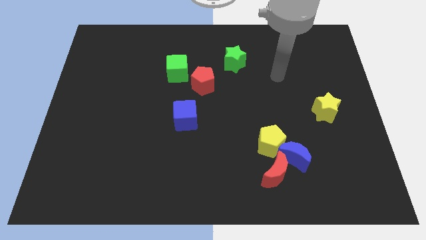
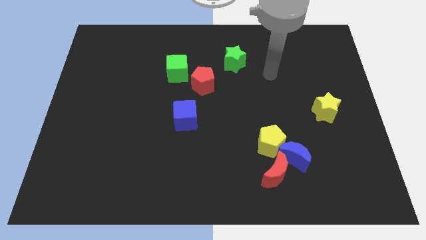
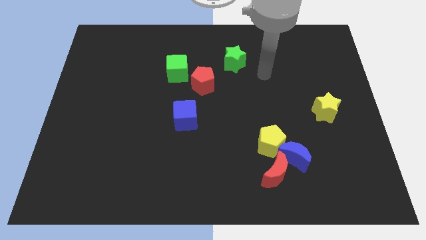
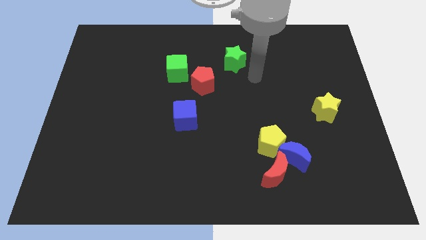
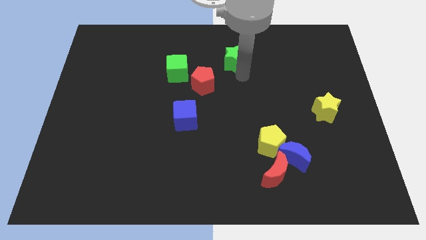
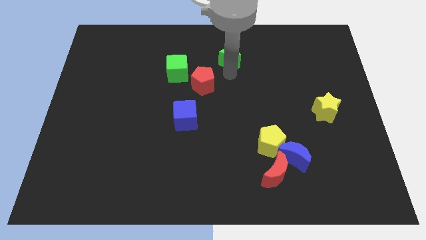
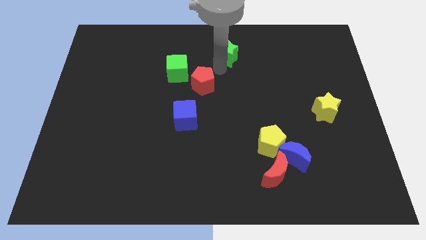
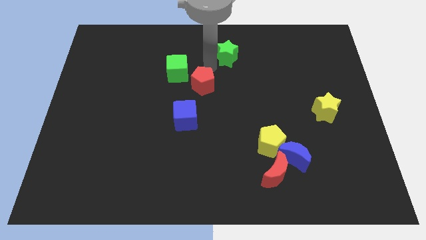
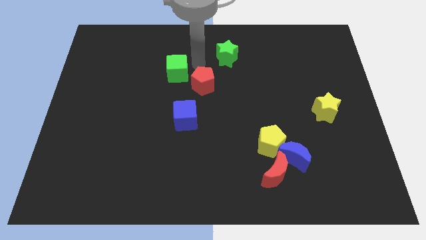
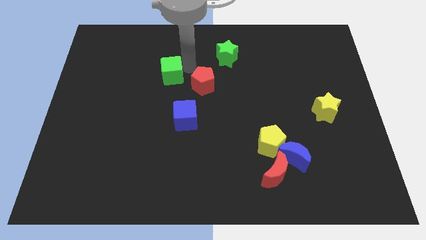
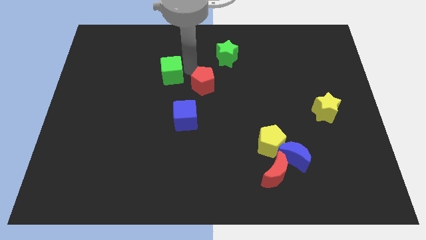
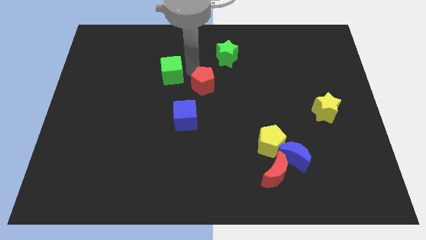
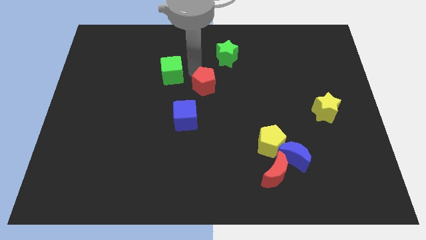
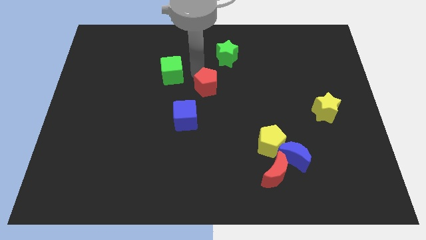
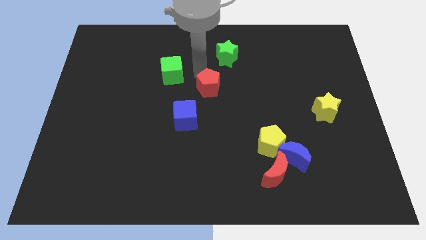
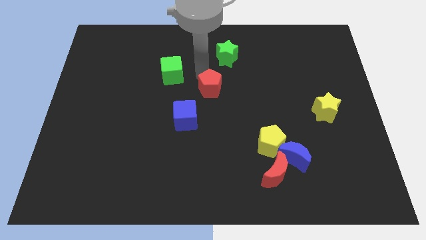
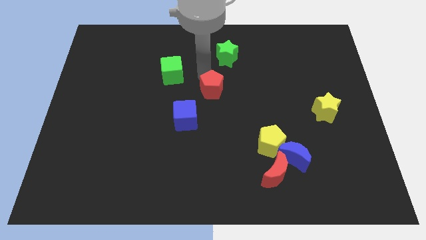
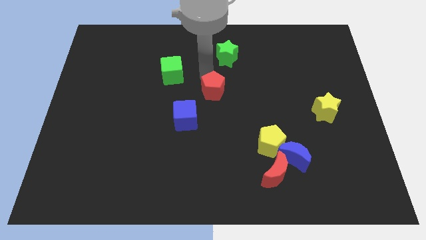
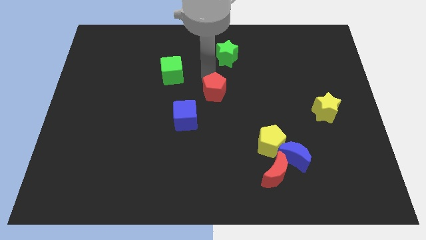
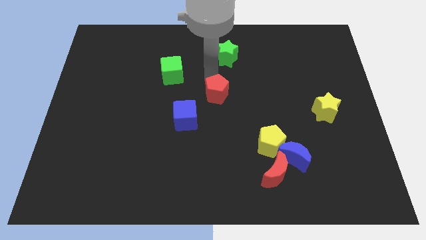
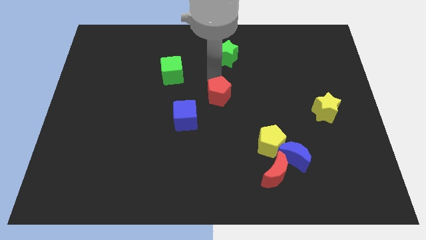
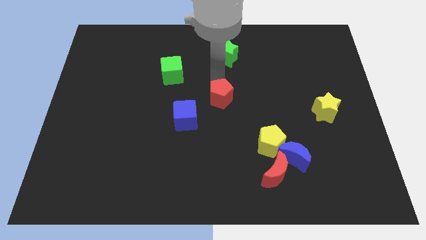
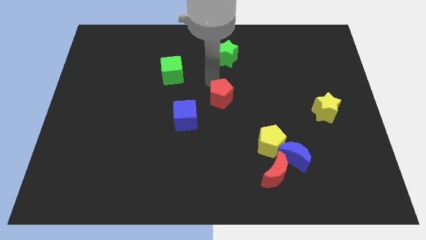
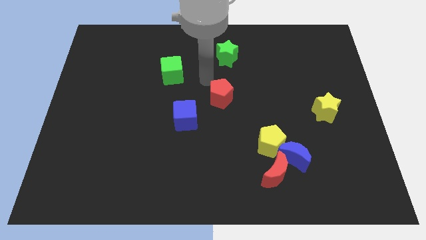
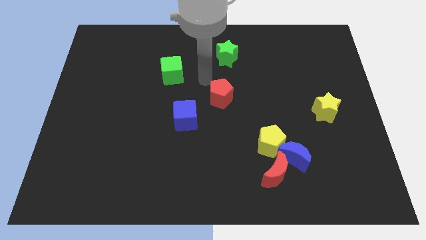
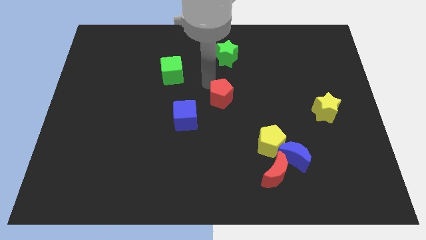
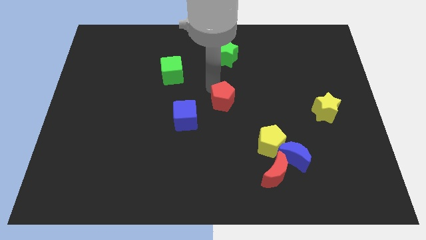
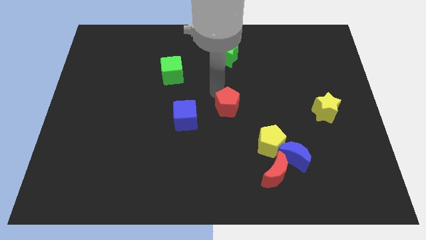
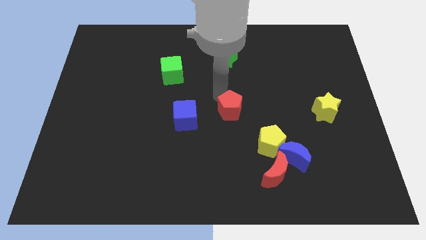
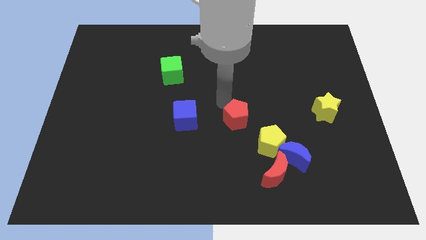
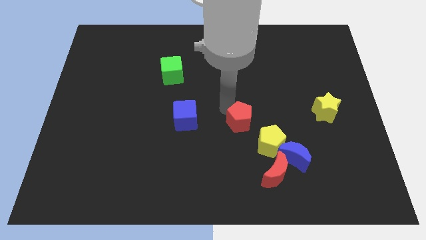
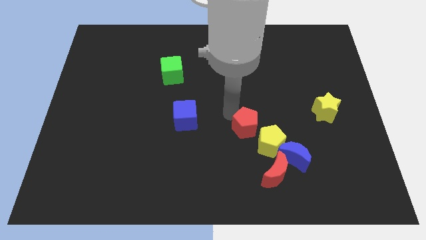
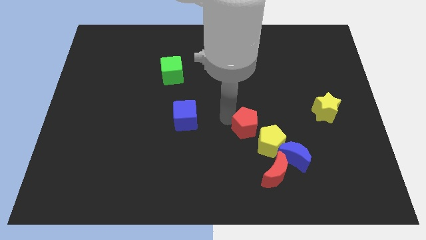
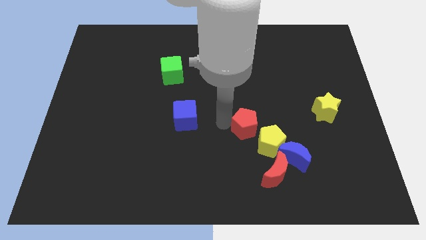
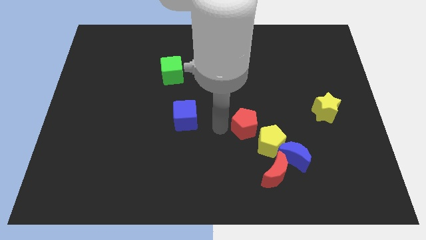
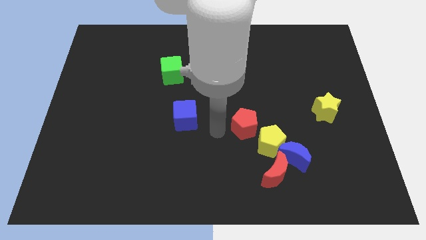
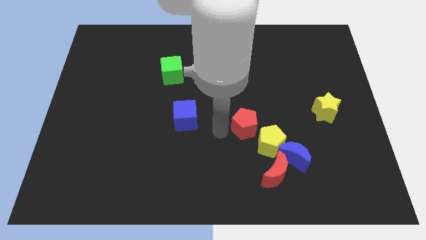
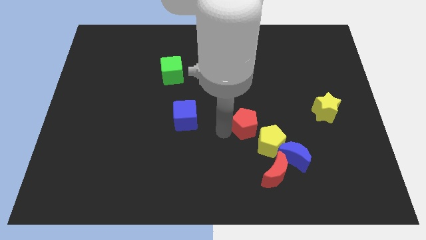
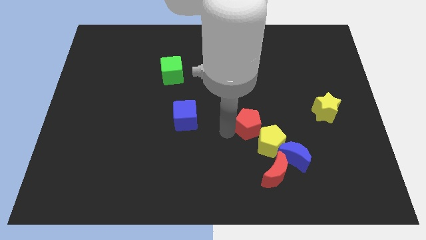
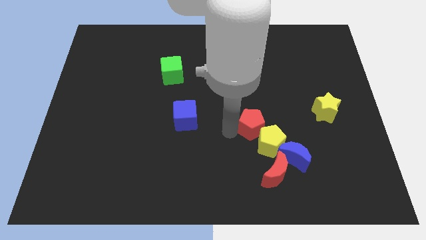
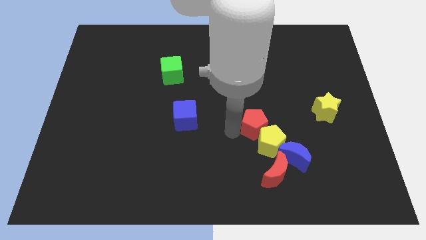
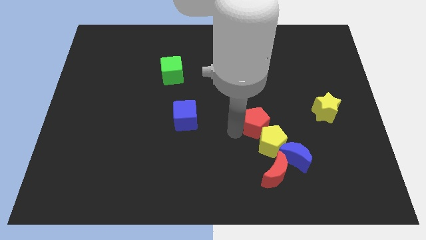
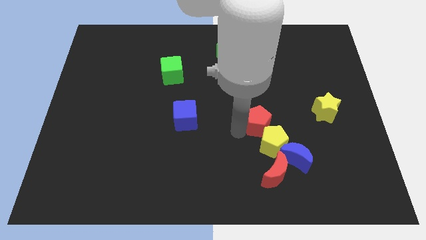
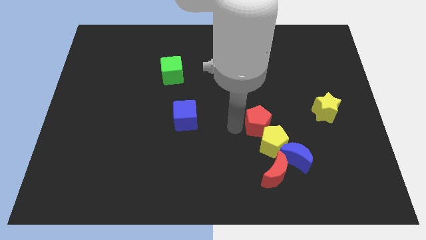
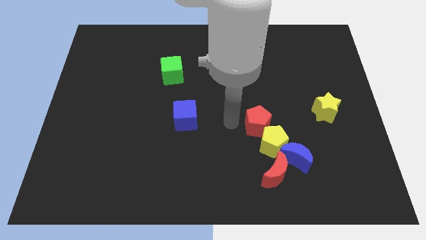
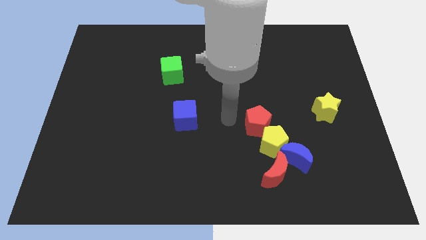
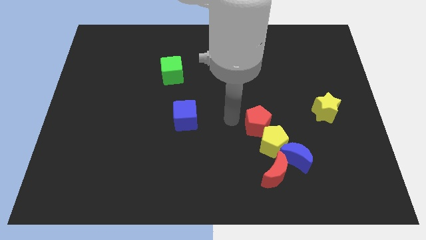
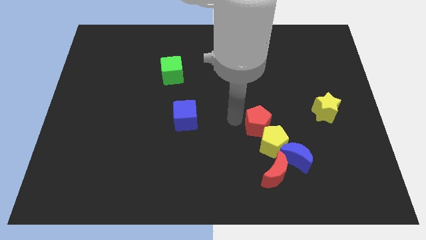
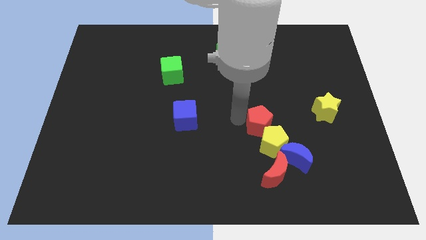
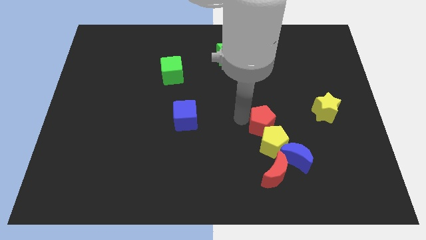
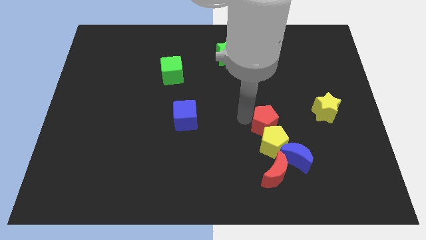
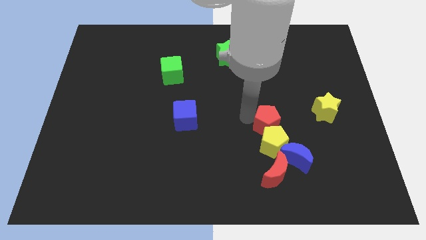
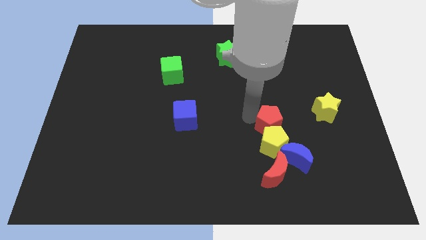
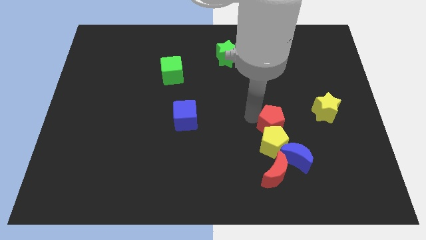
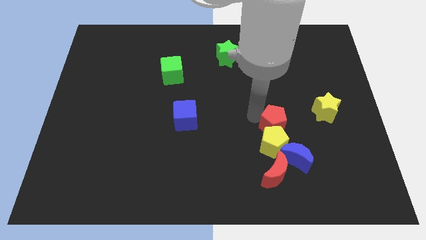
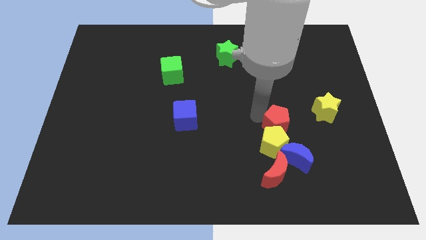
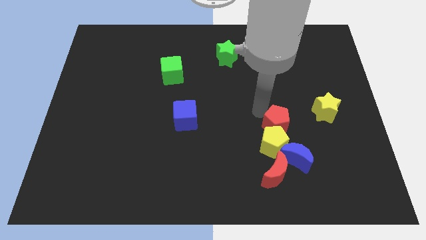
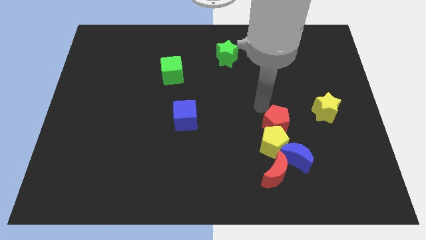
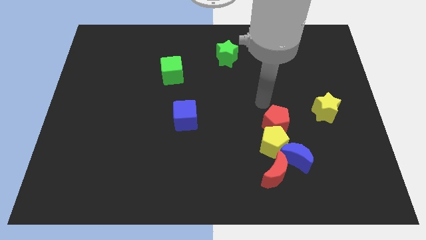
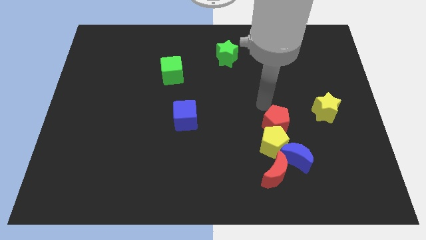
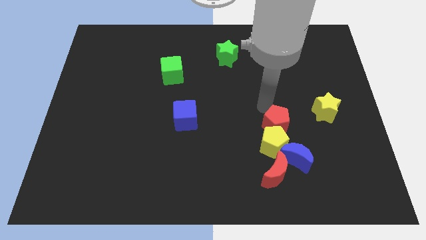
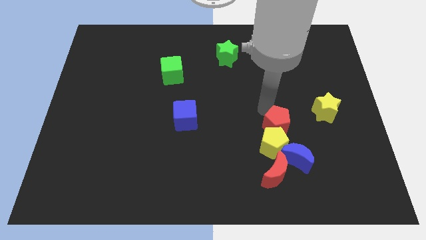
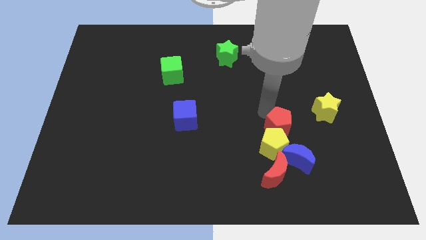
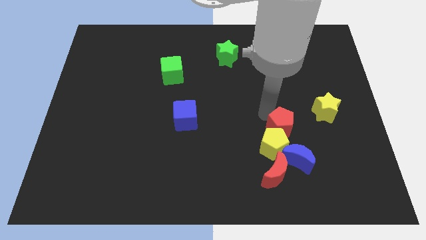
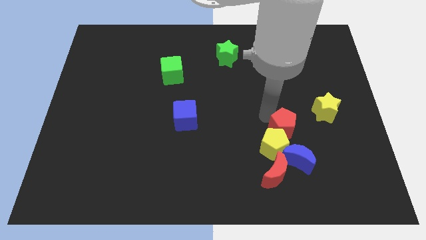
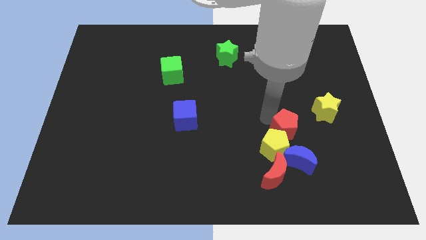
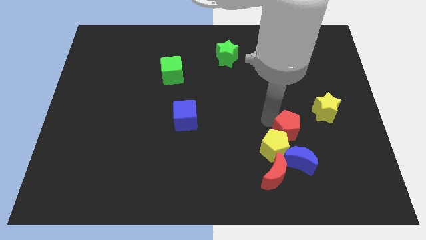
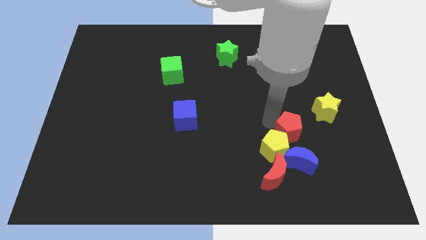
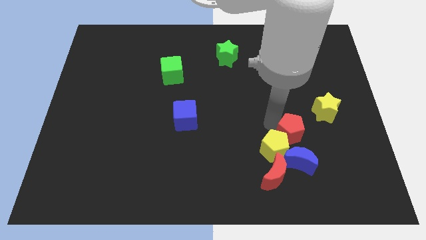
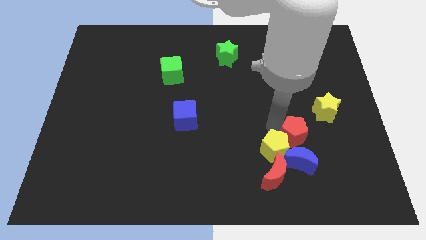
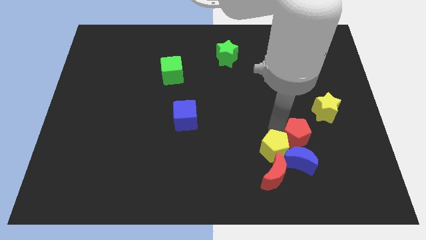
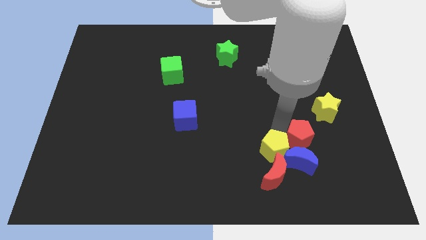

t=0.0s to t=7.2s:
put the red pentagon to the blue moon
